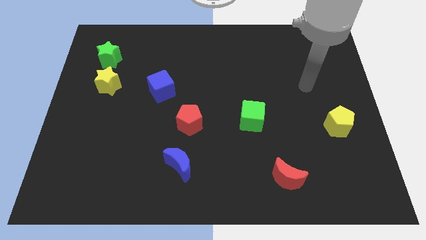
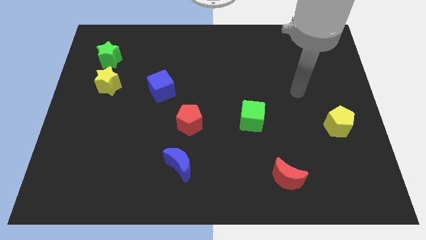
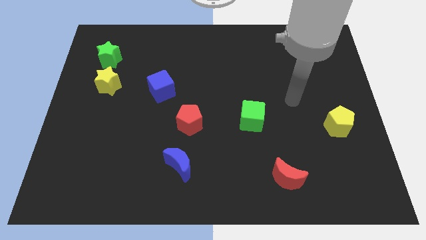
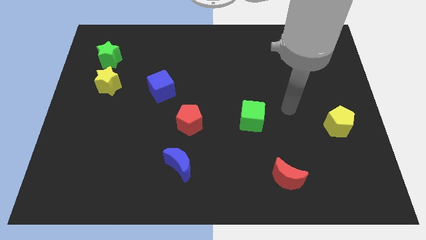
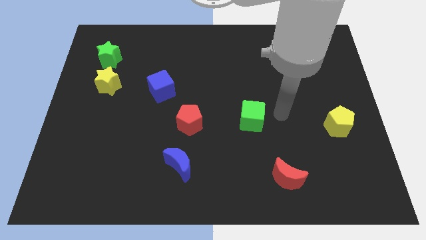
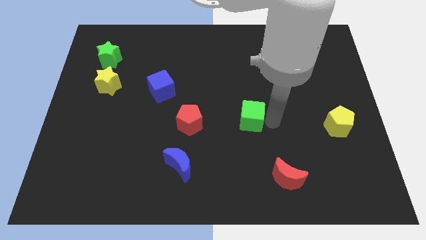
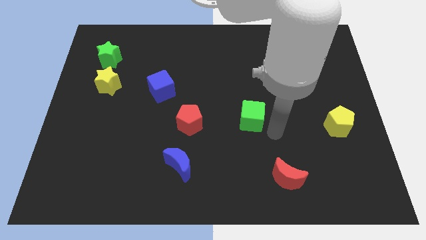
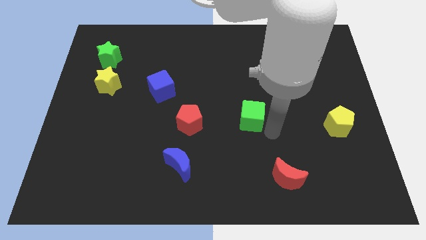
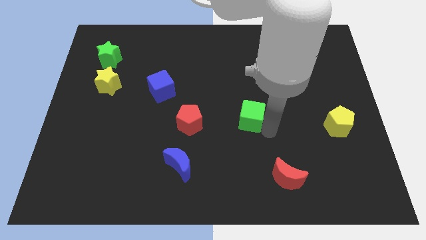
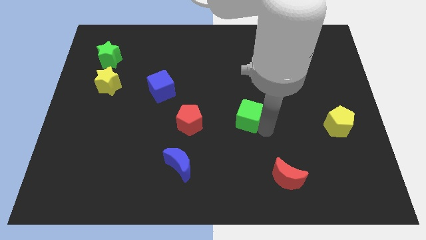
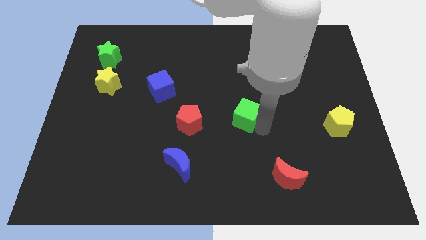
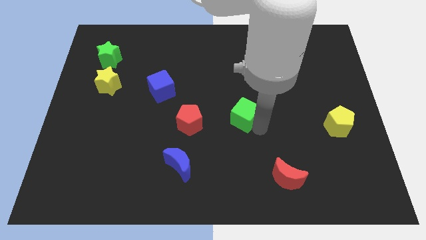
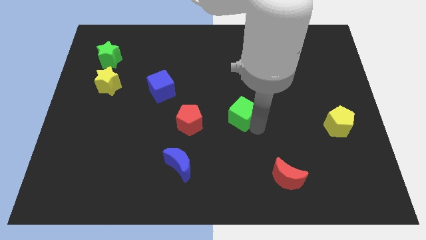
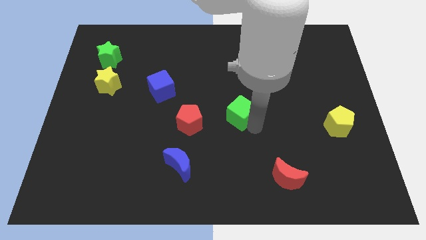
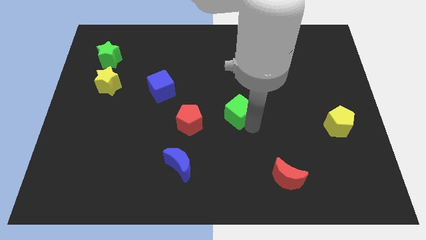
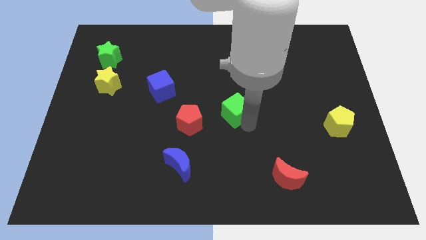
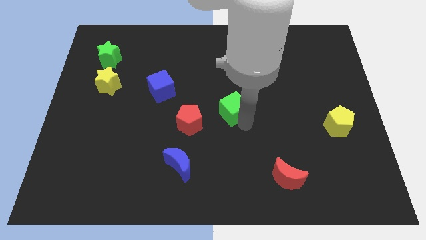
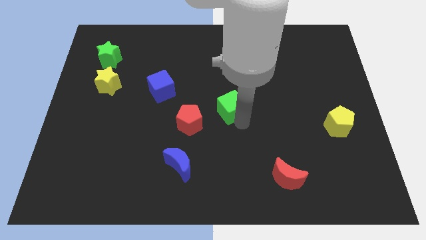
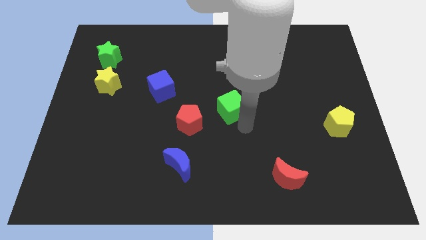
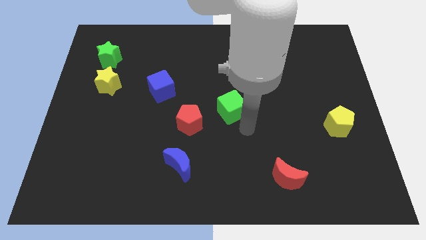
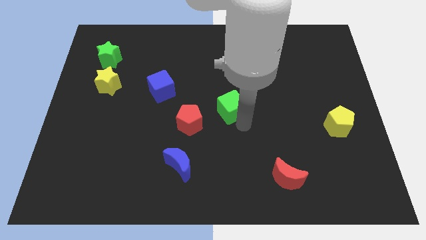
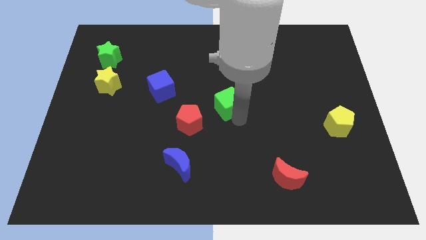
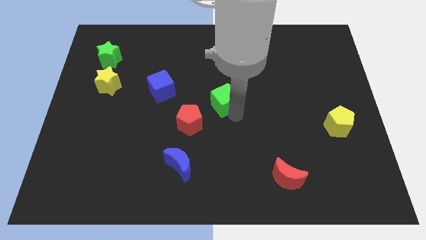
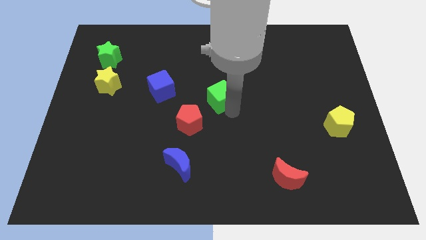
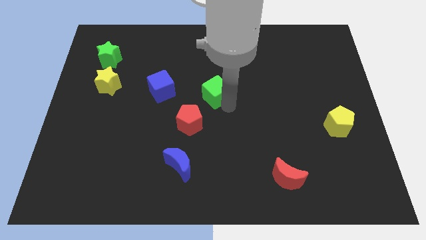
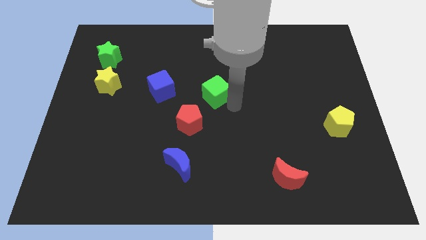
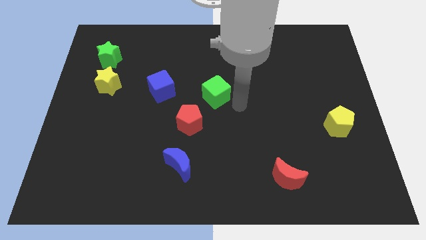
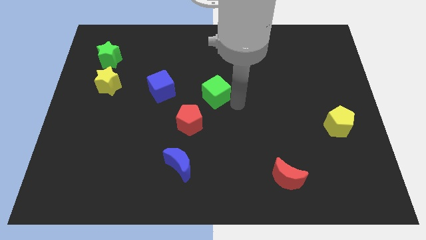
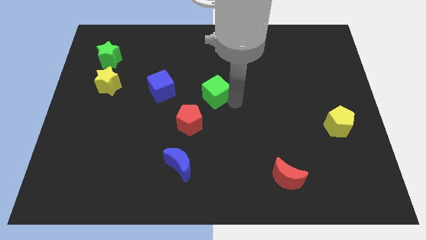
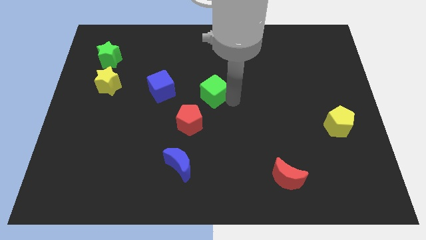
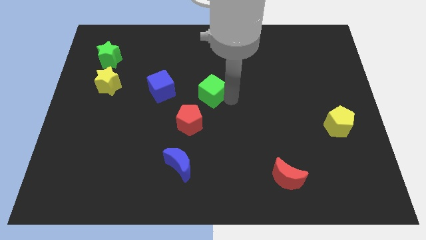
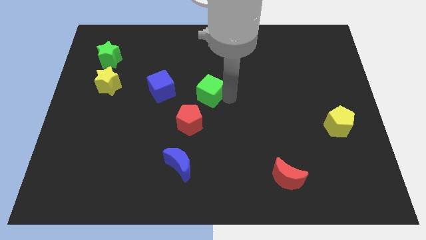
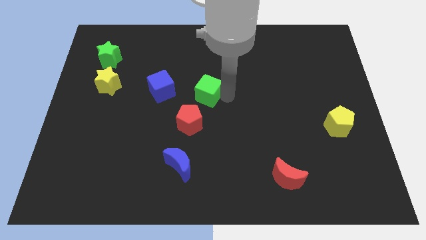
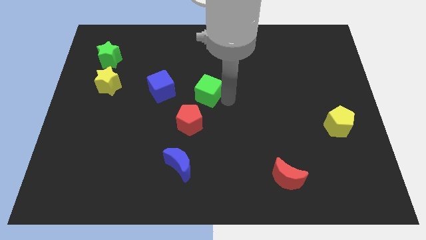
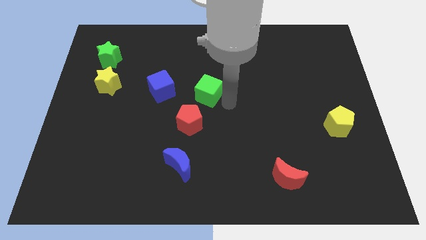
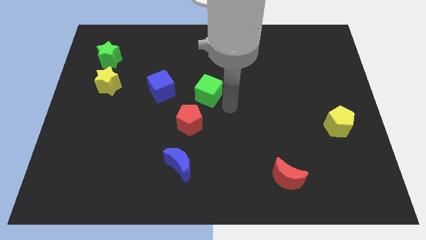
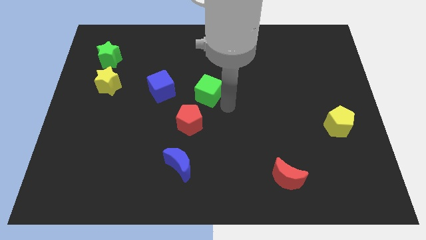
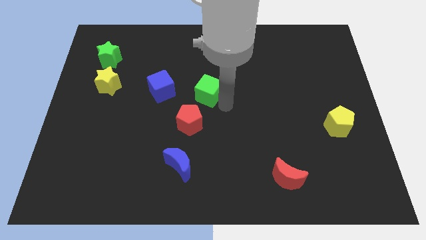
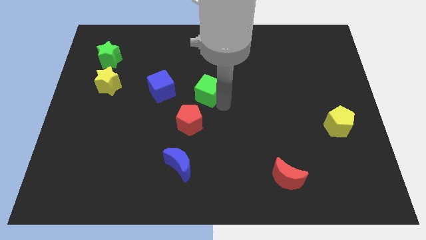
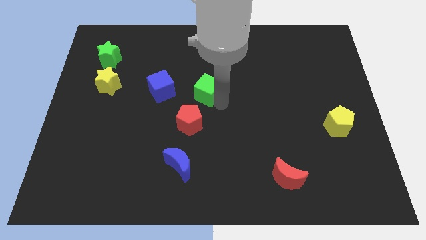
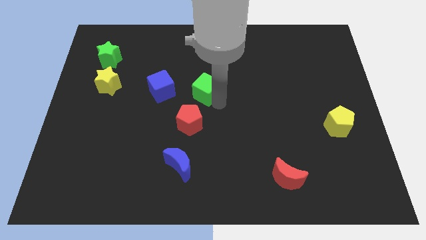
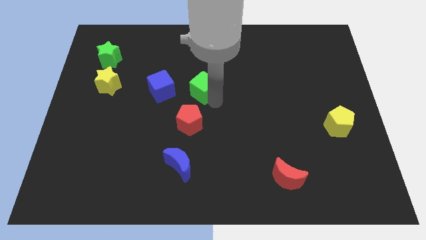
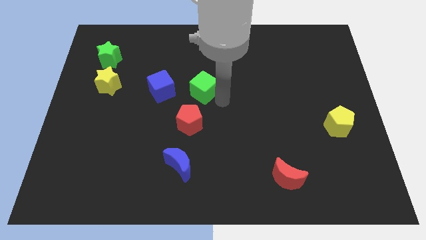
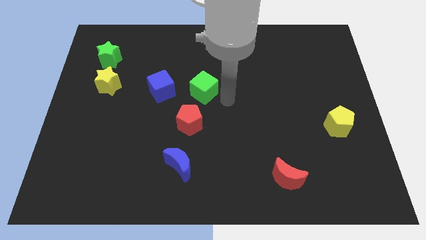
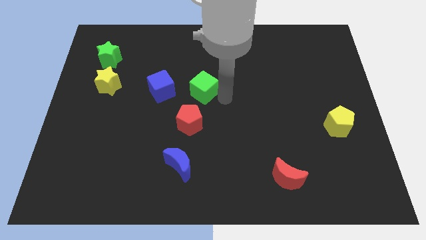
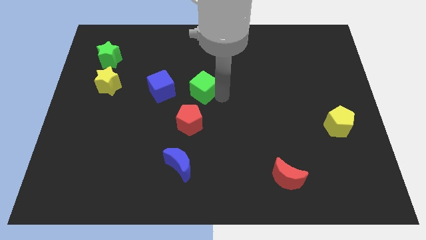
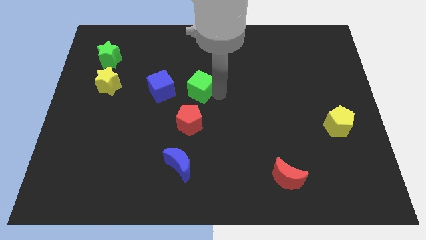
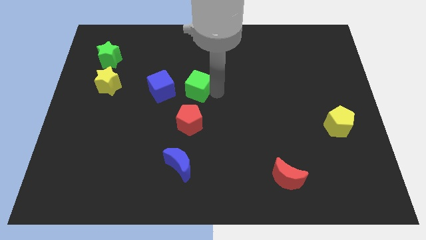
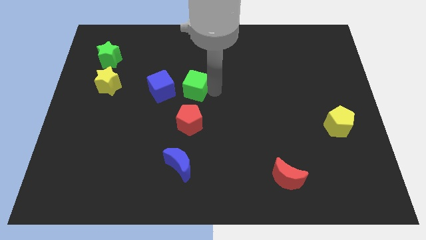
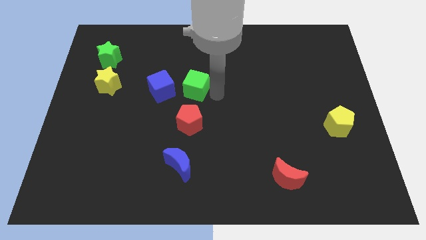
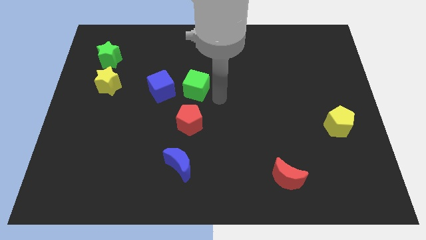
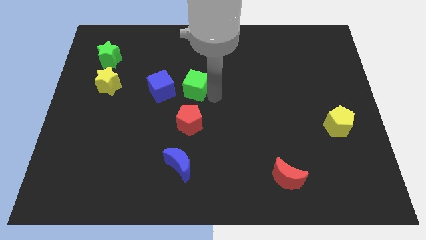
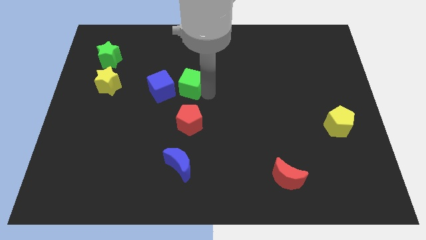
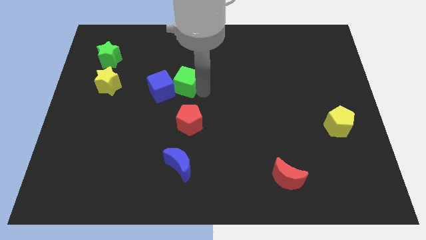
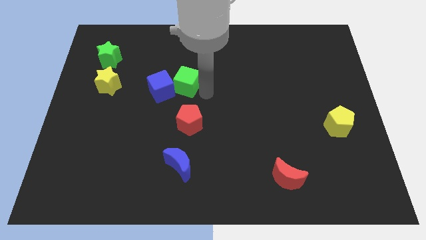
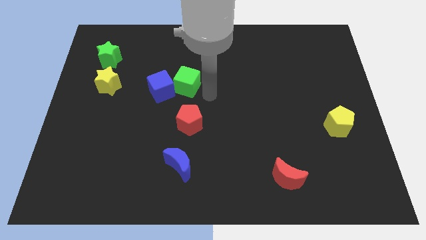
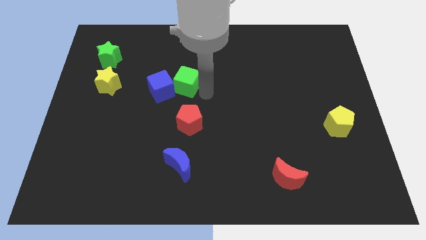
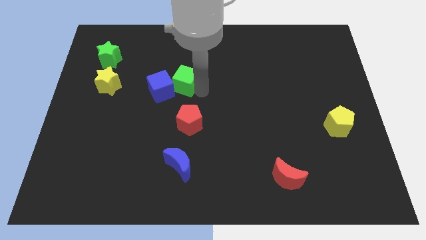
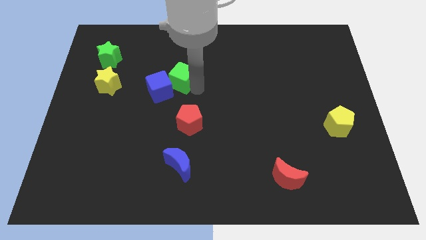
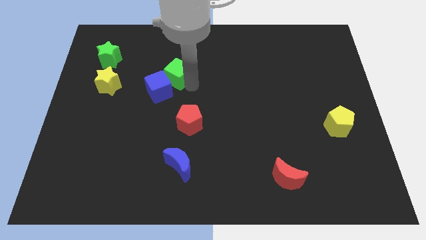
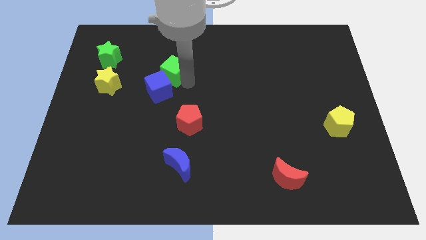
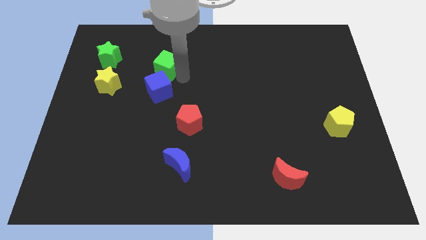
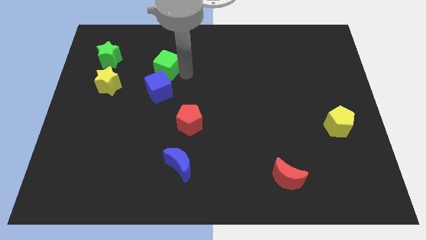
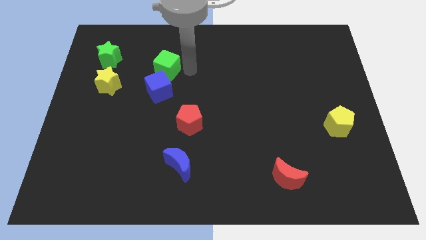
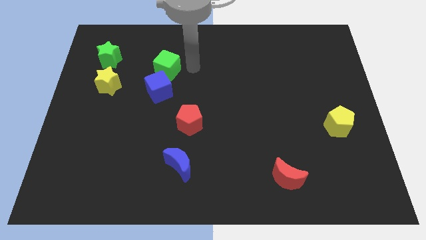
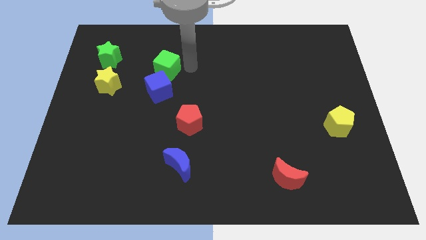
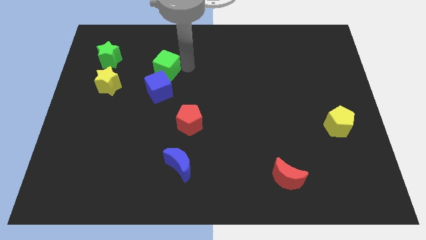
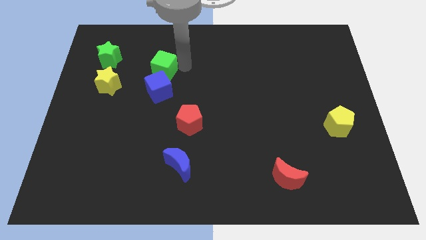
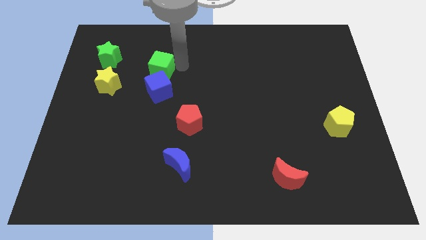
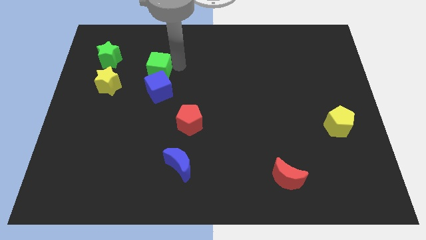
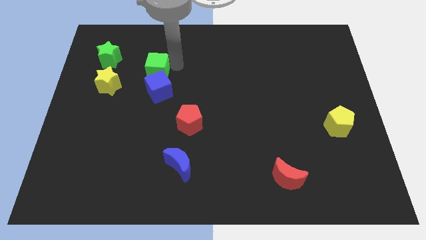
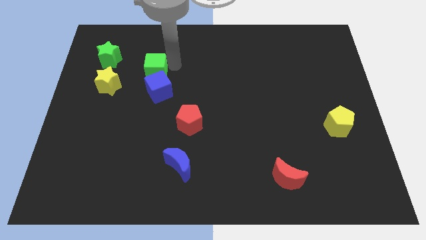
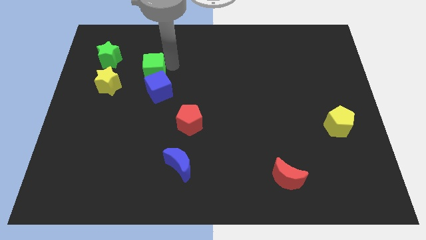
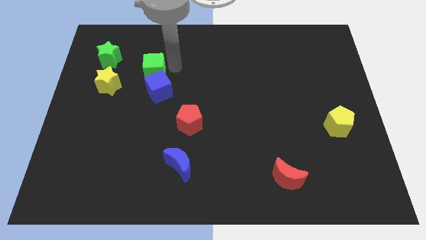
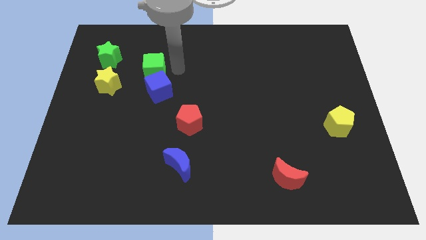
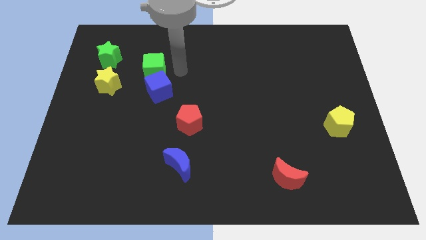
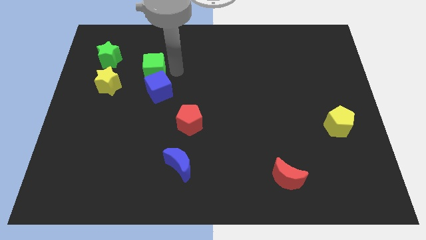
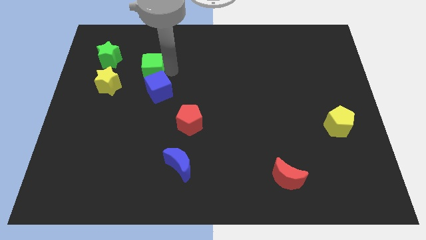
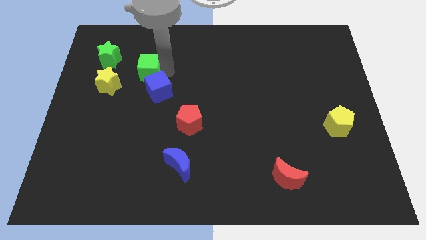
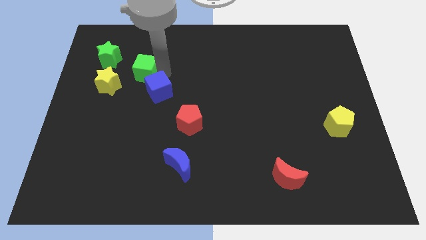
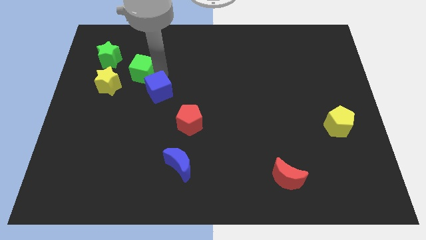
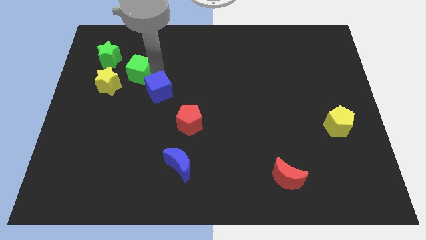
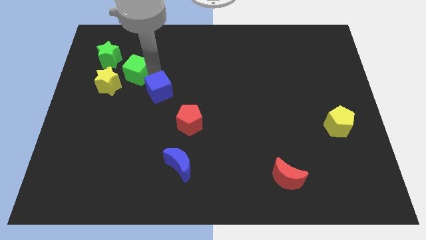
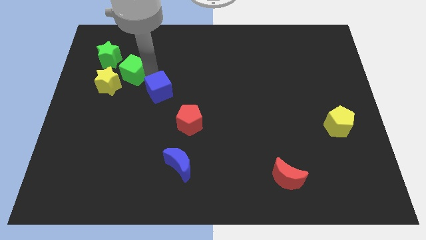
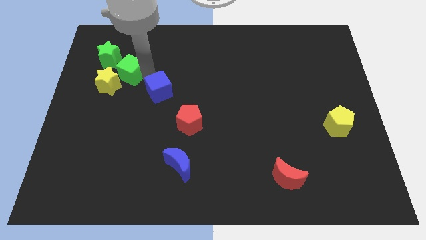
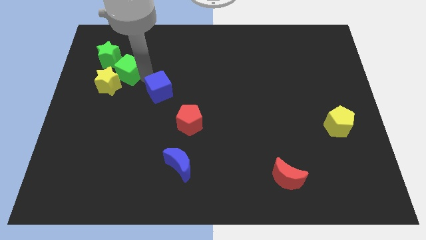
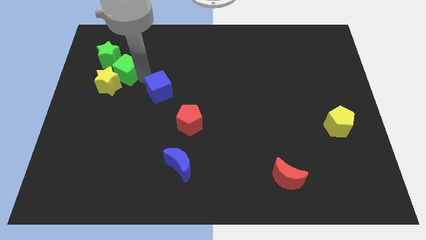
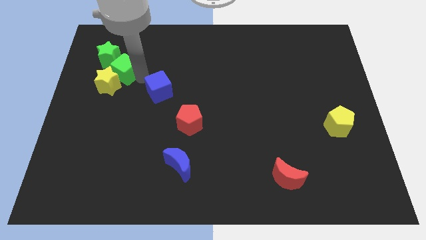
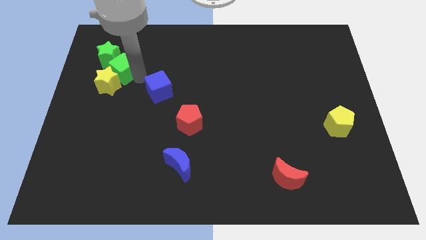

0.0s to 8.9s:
put the green cube towards the green star
